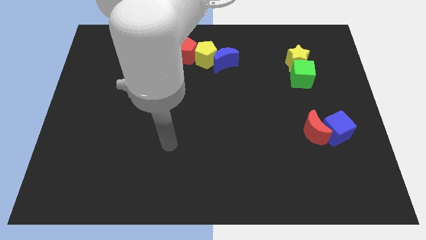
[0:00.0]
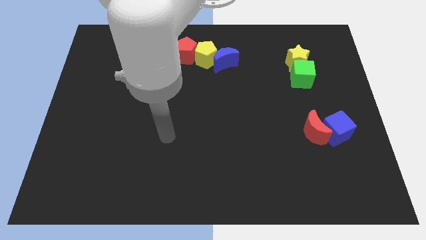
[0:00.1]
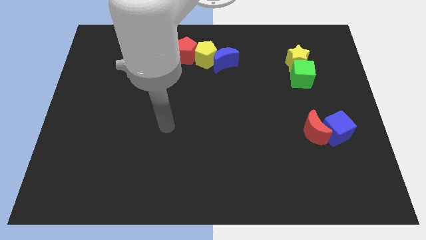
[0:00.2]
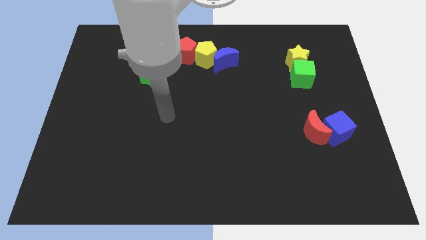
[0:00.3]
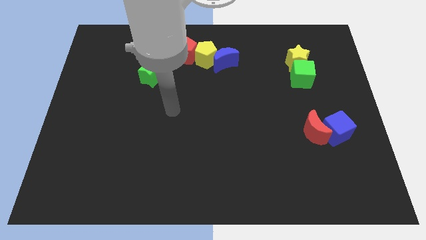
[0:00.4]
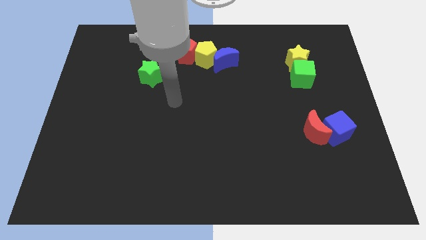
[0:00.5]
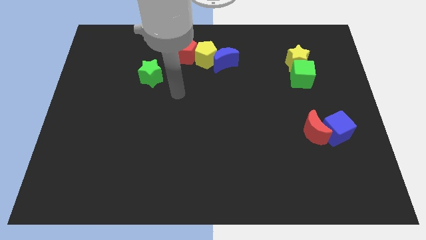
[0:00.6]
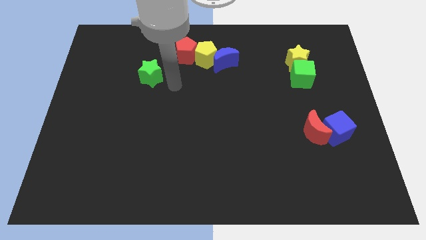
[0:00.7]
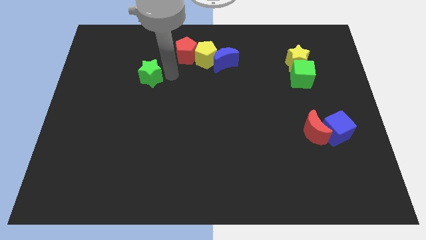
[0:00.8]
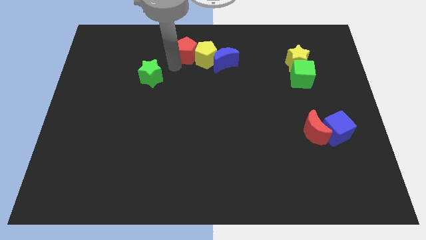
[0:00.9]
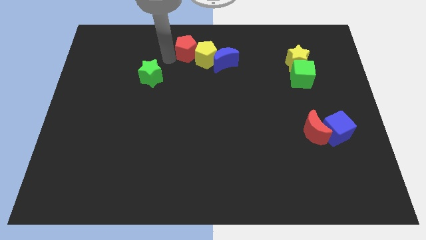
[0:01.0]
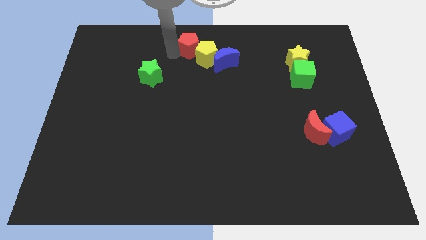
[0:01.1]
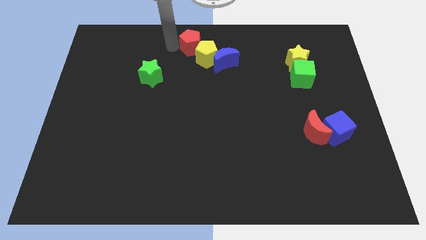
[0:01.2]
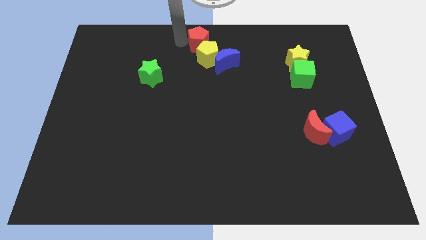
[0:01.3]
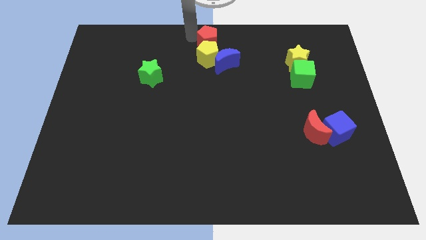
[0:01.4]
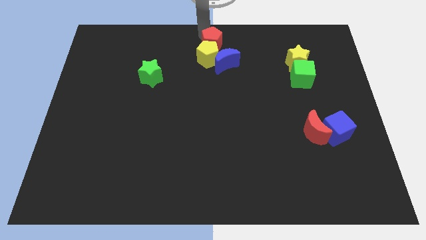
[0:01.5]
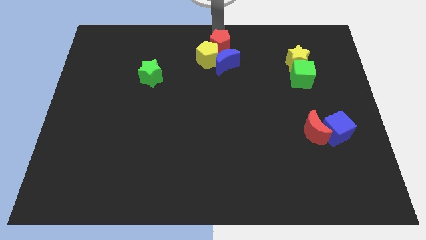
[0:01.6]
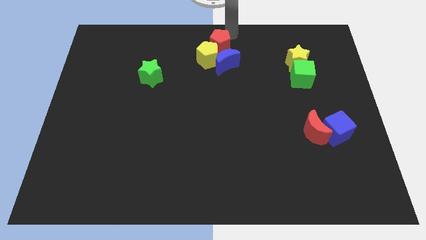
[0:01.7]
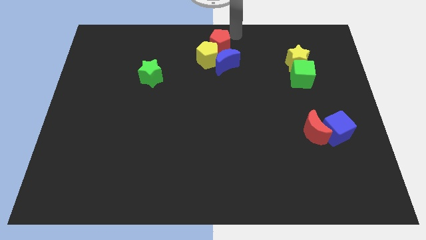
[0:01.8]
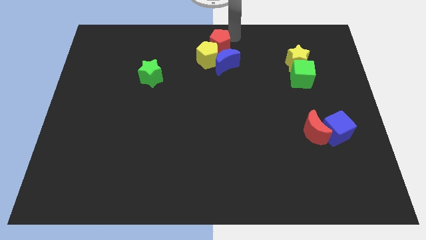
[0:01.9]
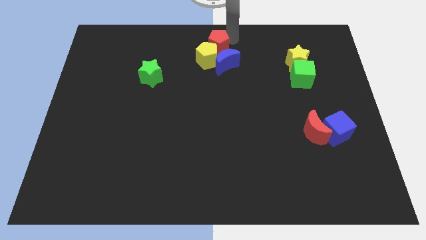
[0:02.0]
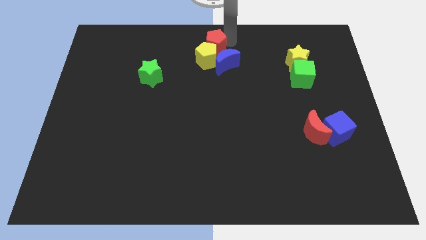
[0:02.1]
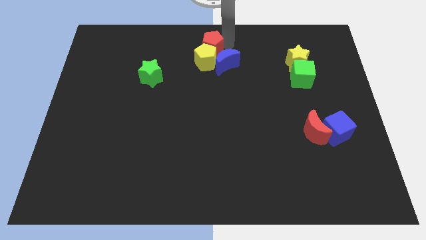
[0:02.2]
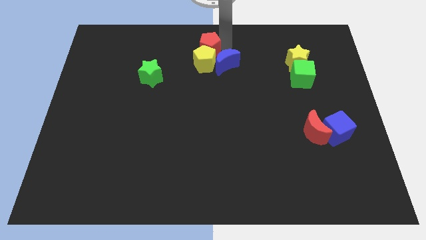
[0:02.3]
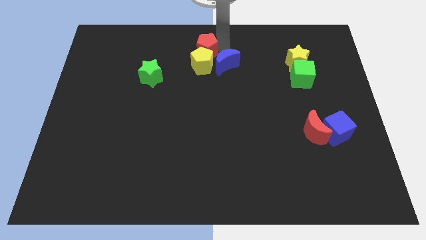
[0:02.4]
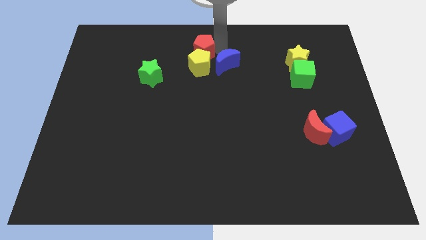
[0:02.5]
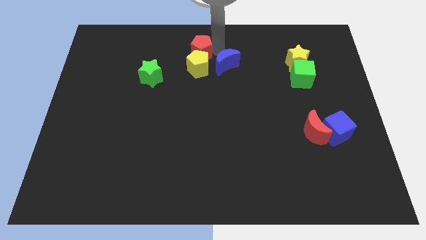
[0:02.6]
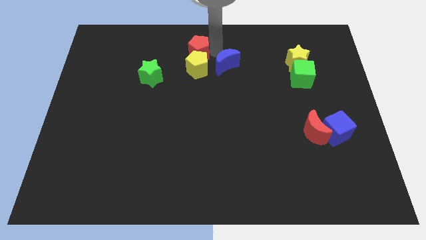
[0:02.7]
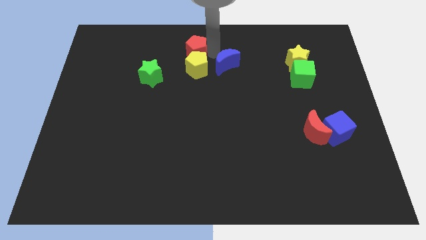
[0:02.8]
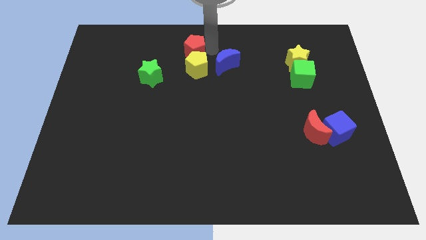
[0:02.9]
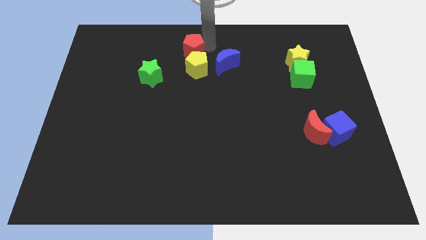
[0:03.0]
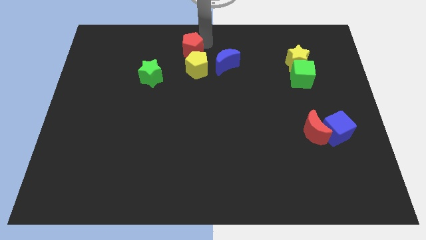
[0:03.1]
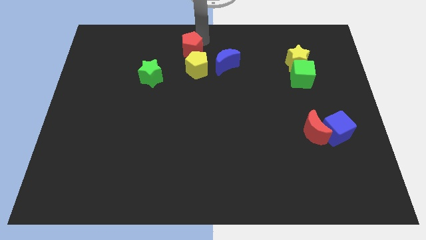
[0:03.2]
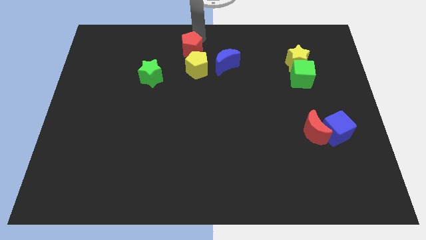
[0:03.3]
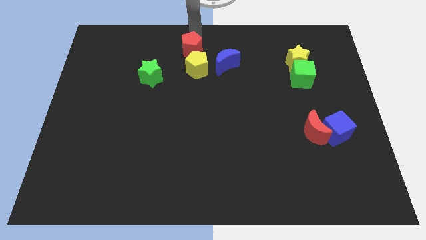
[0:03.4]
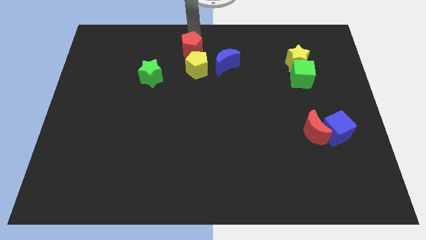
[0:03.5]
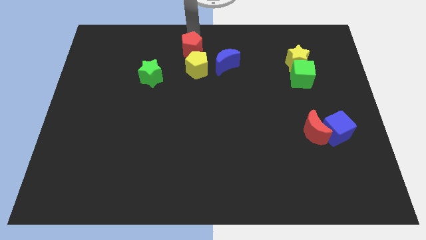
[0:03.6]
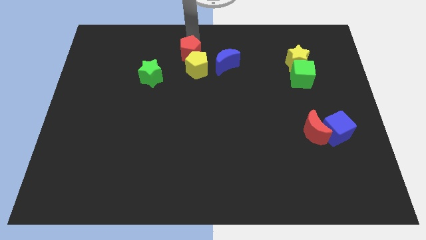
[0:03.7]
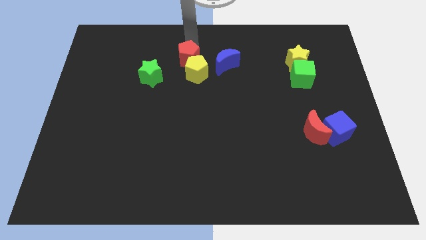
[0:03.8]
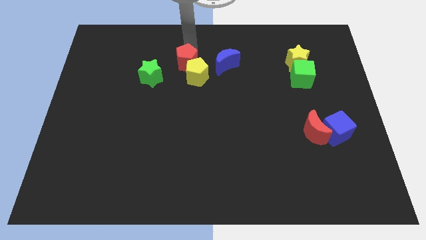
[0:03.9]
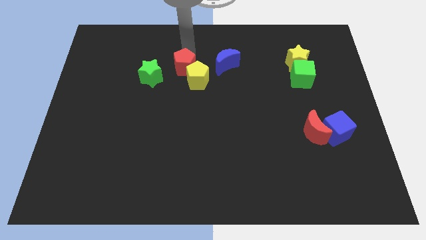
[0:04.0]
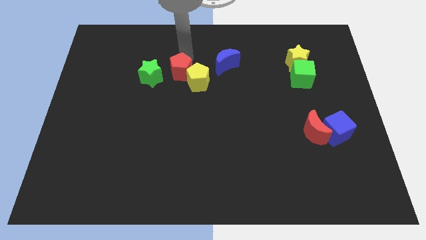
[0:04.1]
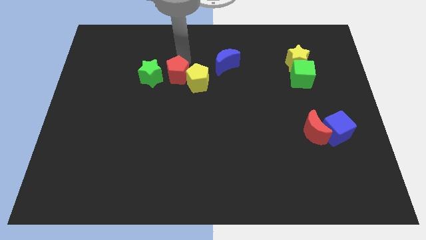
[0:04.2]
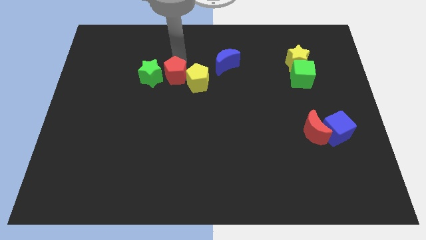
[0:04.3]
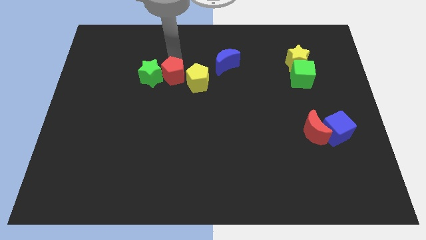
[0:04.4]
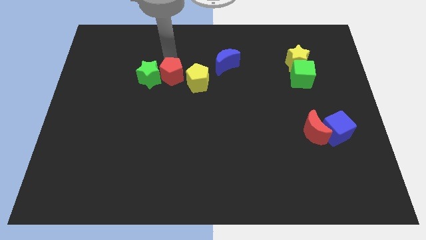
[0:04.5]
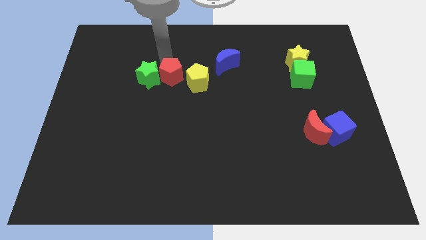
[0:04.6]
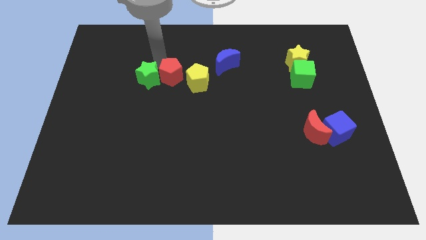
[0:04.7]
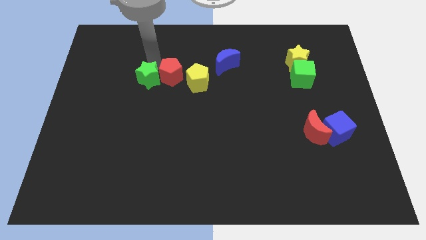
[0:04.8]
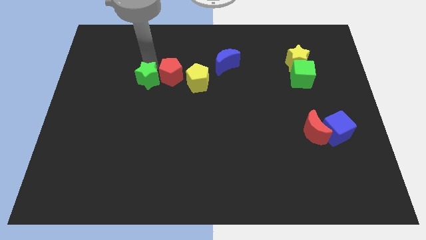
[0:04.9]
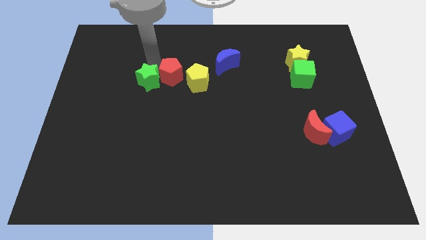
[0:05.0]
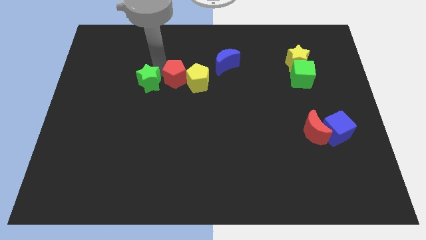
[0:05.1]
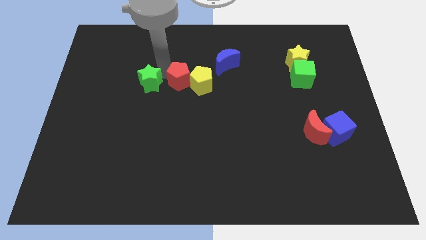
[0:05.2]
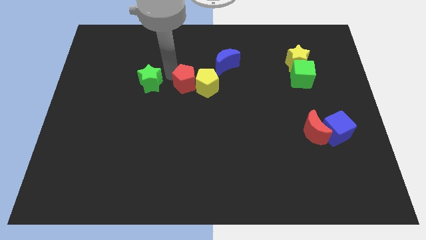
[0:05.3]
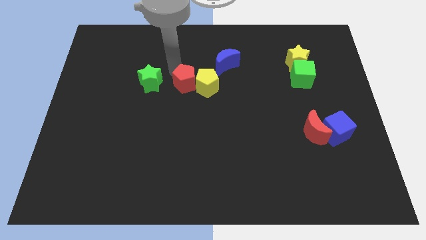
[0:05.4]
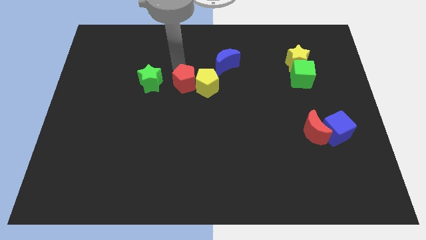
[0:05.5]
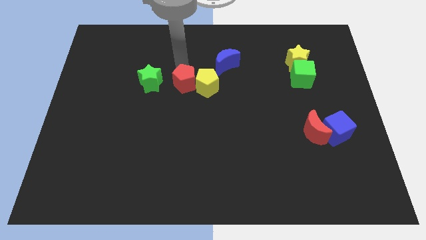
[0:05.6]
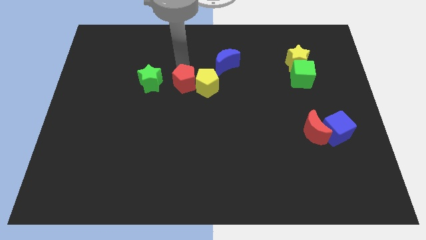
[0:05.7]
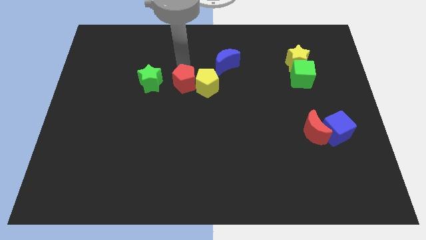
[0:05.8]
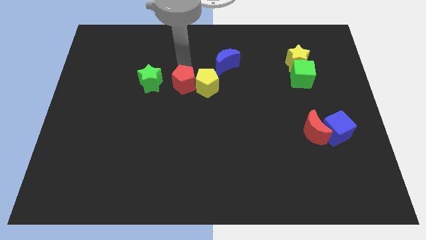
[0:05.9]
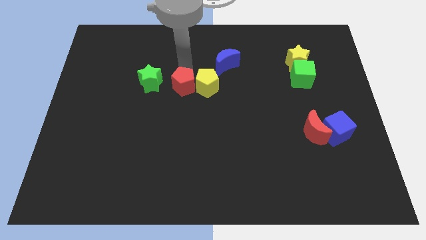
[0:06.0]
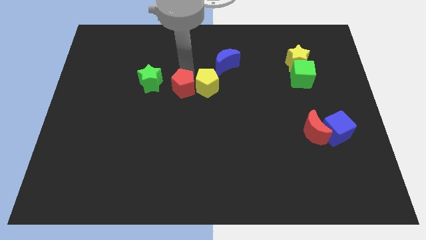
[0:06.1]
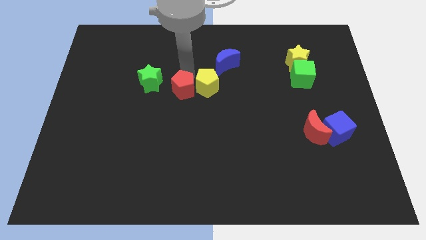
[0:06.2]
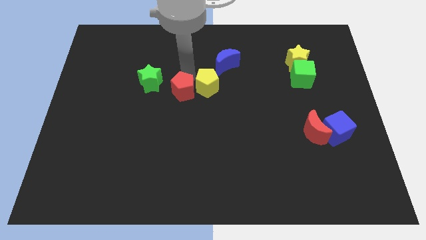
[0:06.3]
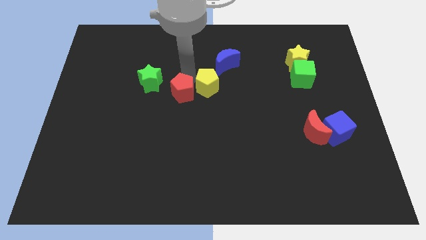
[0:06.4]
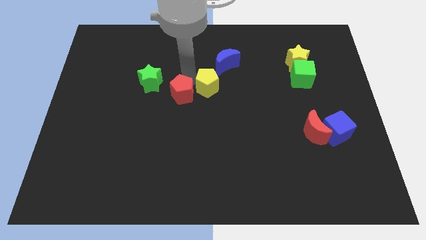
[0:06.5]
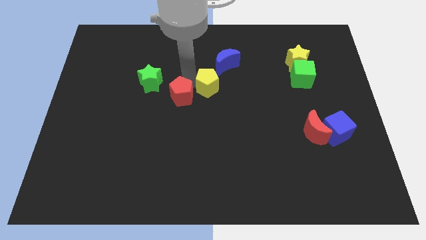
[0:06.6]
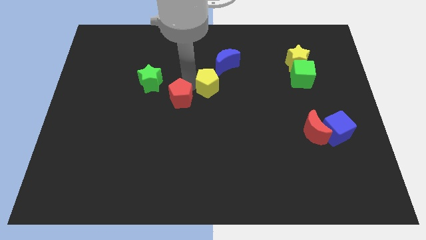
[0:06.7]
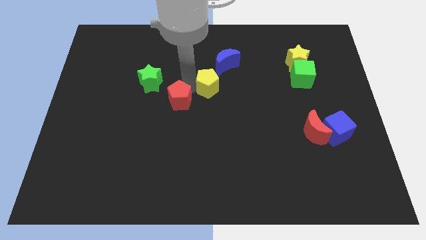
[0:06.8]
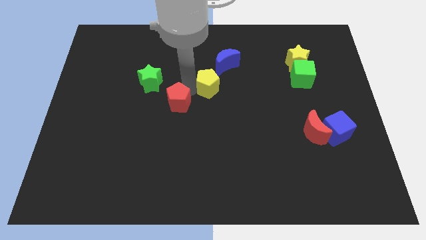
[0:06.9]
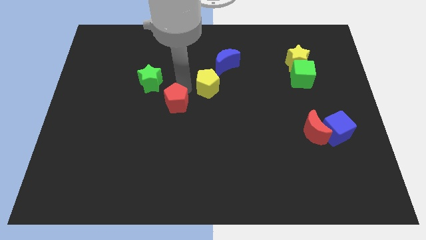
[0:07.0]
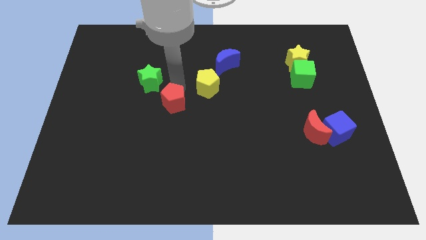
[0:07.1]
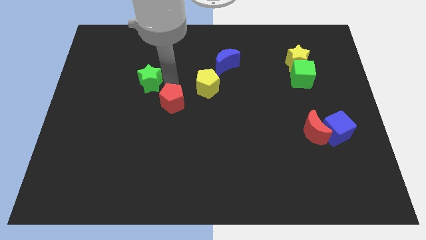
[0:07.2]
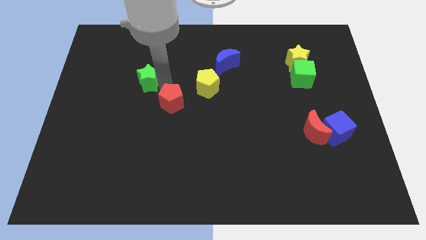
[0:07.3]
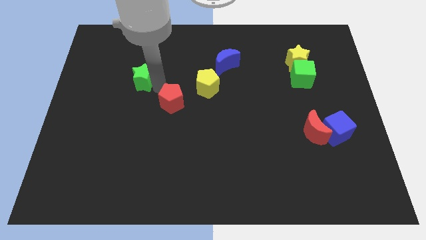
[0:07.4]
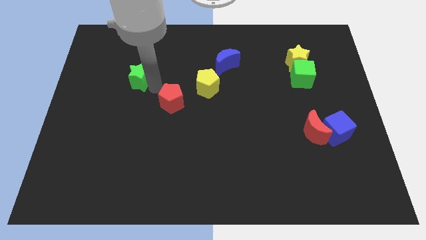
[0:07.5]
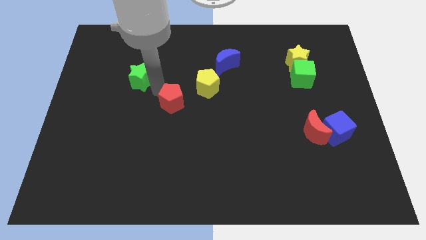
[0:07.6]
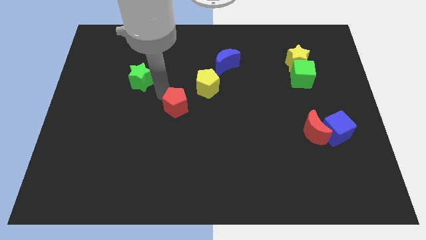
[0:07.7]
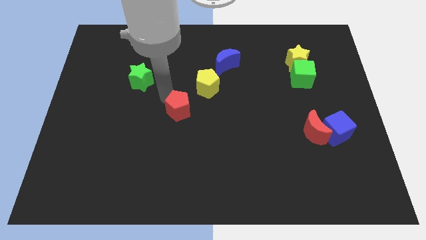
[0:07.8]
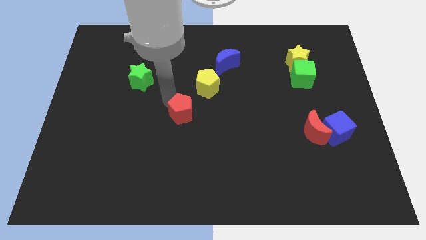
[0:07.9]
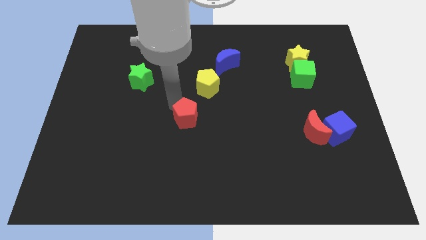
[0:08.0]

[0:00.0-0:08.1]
slide the red pentagon down
